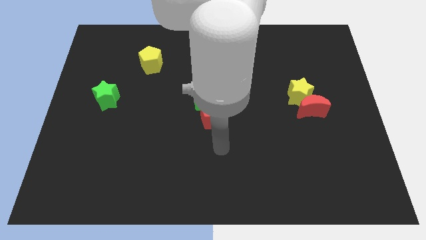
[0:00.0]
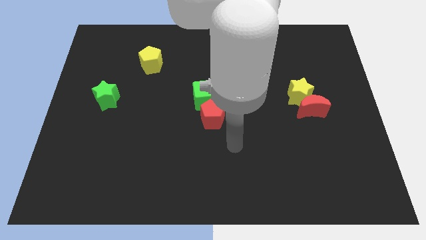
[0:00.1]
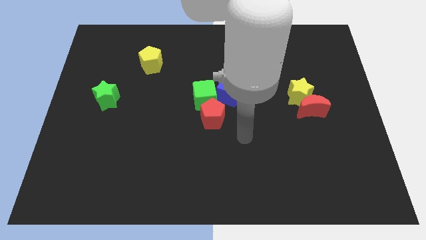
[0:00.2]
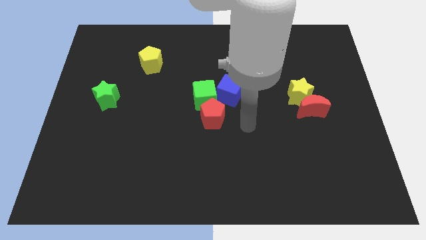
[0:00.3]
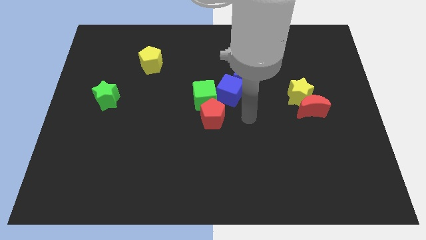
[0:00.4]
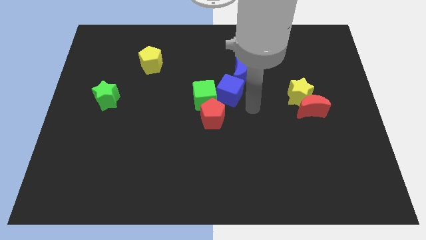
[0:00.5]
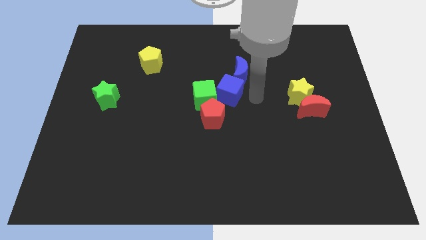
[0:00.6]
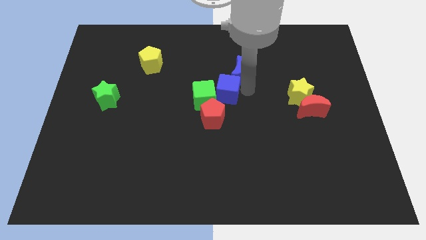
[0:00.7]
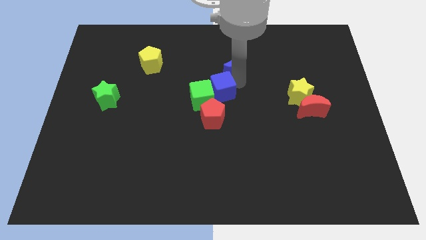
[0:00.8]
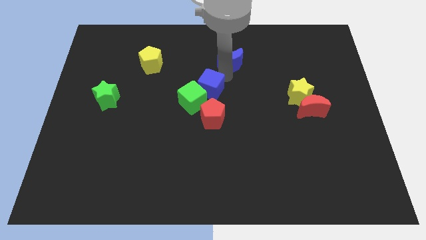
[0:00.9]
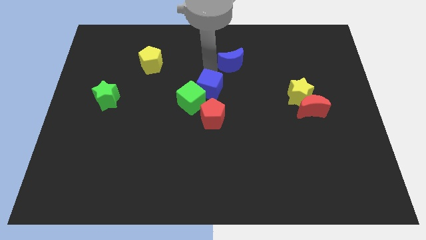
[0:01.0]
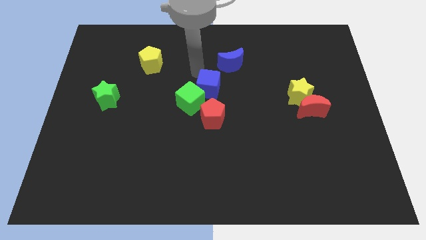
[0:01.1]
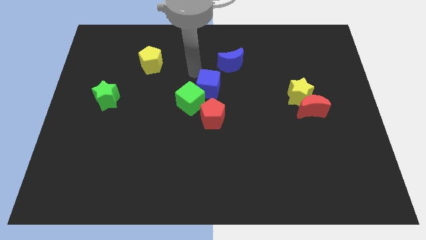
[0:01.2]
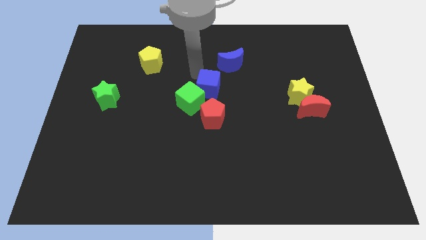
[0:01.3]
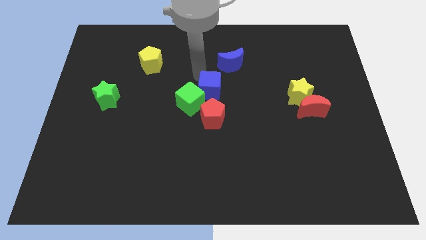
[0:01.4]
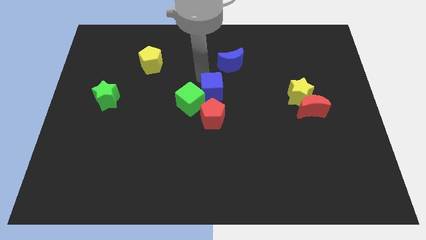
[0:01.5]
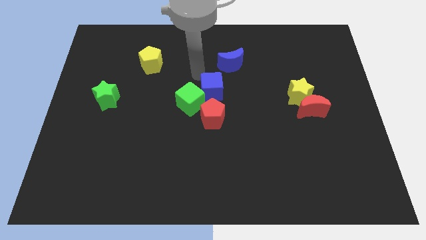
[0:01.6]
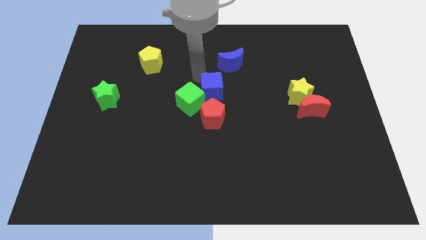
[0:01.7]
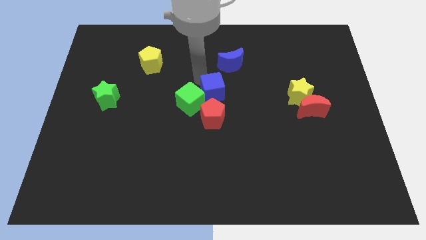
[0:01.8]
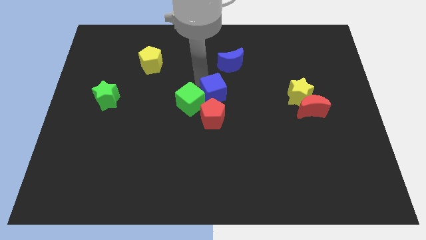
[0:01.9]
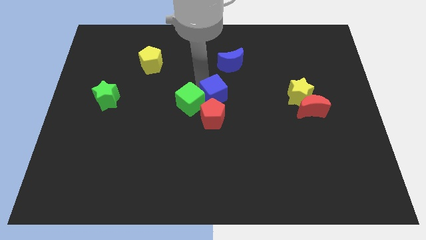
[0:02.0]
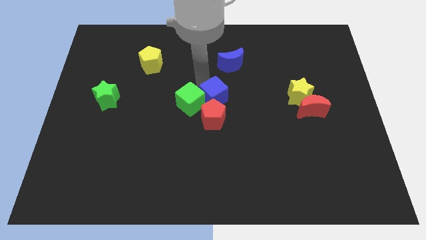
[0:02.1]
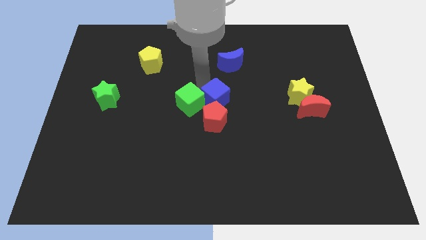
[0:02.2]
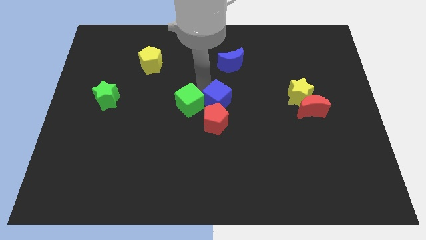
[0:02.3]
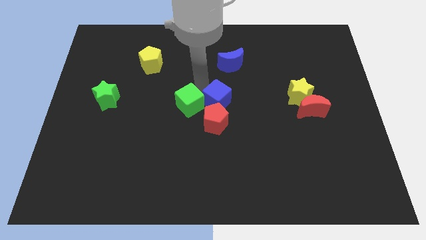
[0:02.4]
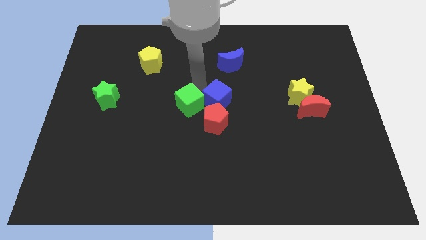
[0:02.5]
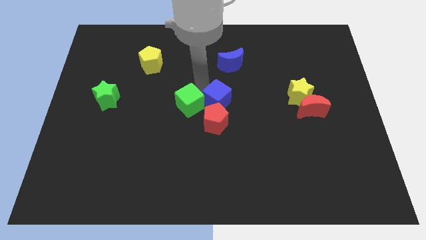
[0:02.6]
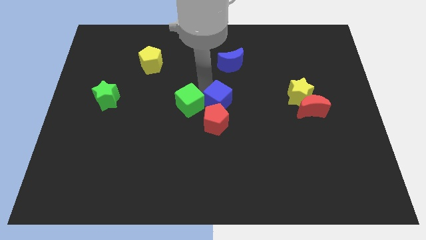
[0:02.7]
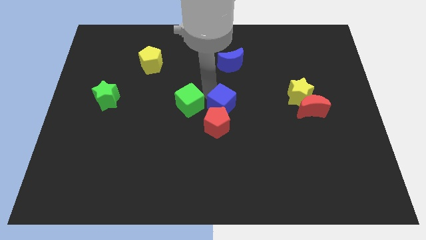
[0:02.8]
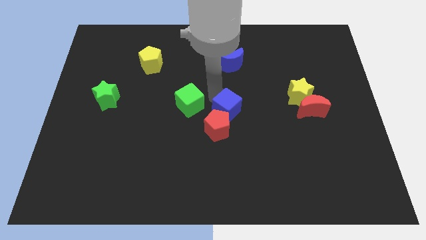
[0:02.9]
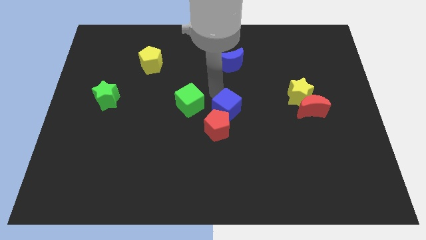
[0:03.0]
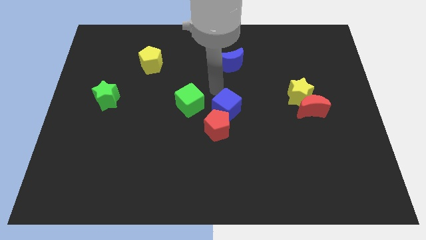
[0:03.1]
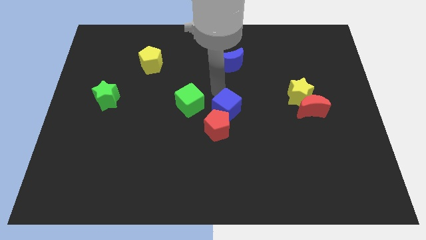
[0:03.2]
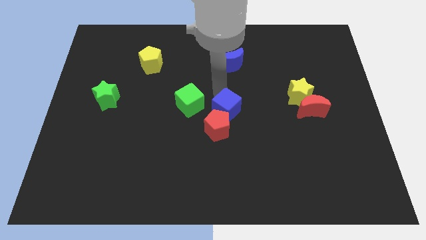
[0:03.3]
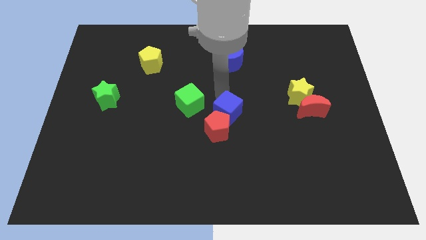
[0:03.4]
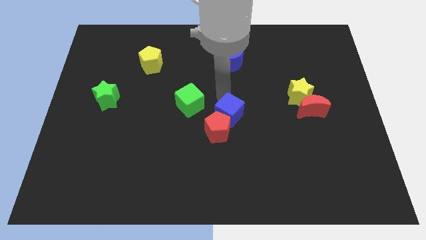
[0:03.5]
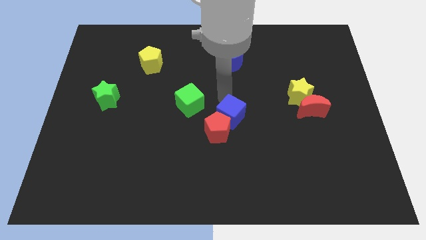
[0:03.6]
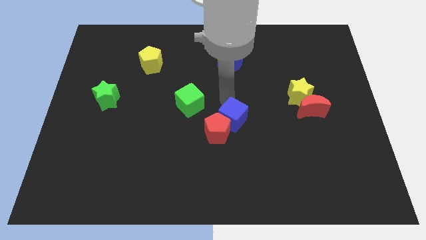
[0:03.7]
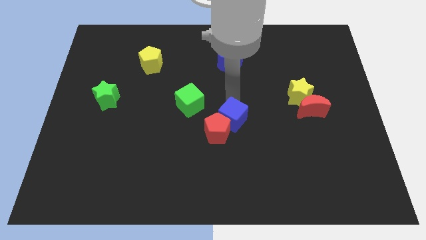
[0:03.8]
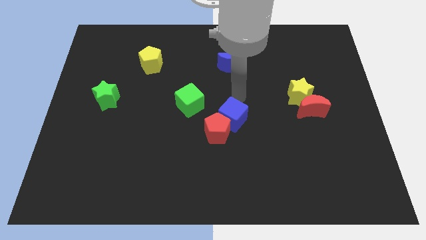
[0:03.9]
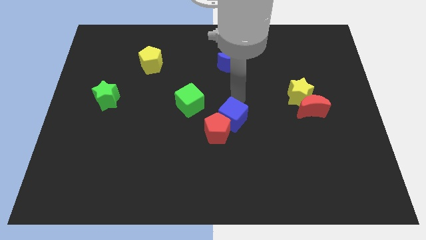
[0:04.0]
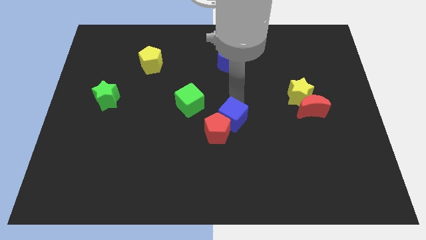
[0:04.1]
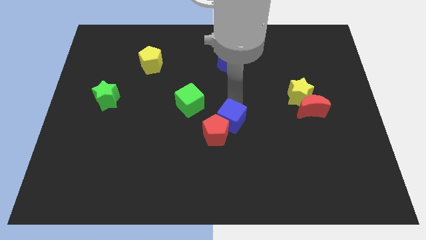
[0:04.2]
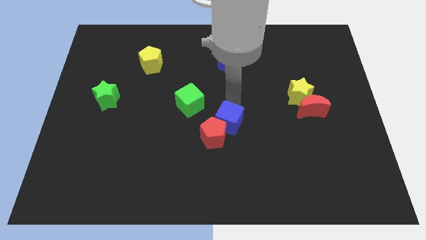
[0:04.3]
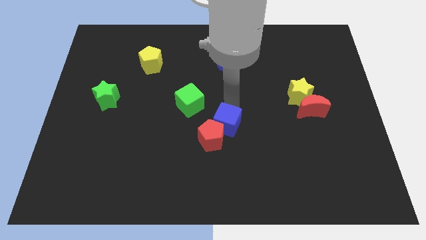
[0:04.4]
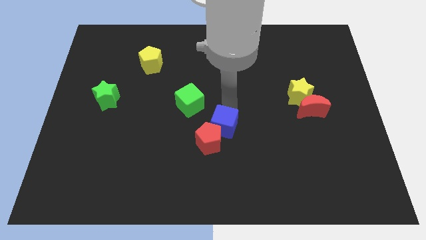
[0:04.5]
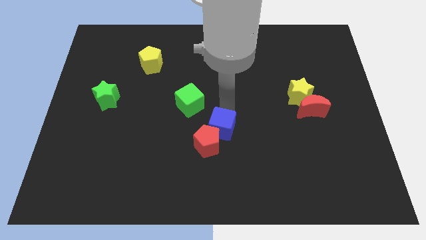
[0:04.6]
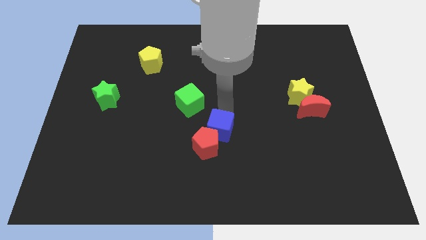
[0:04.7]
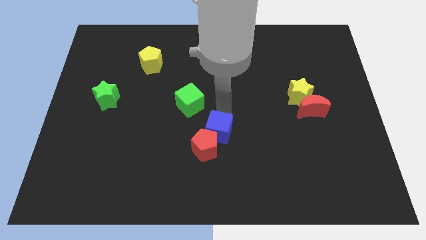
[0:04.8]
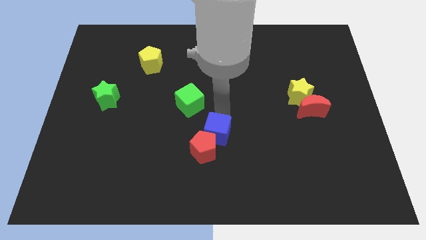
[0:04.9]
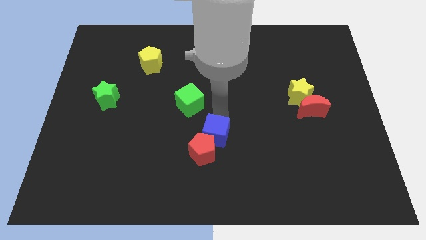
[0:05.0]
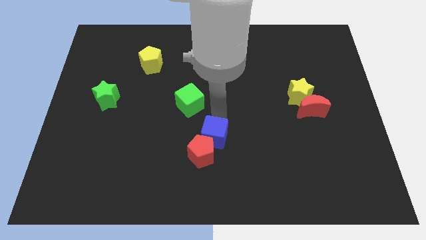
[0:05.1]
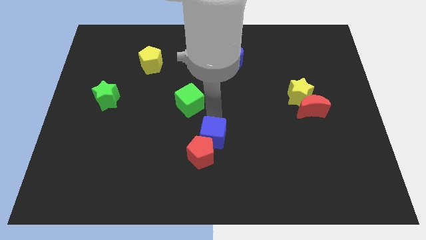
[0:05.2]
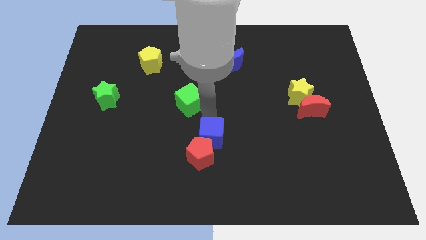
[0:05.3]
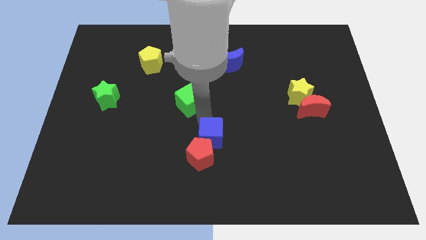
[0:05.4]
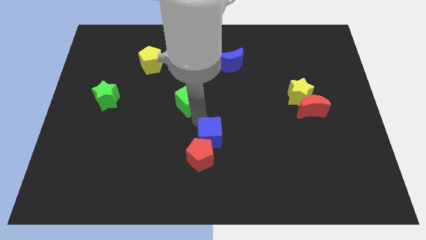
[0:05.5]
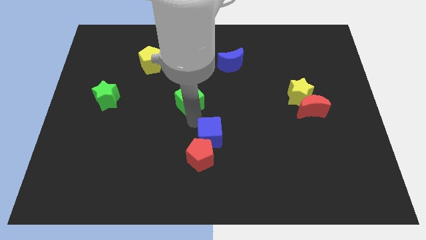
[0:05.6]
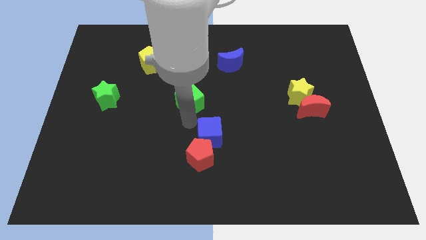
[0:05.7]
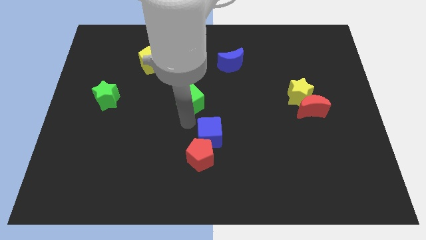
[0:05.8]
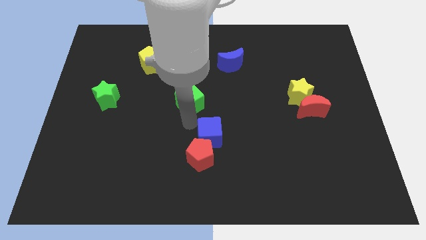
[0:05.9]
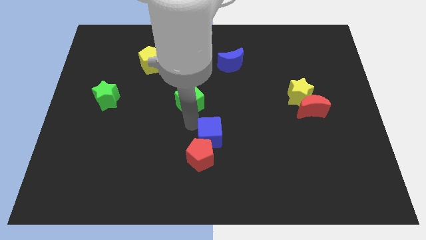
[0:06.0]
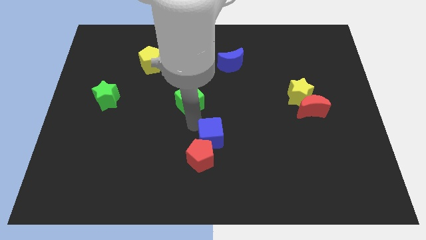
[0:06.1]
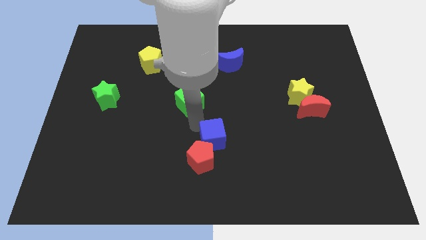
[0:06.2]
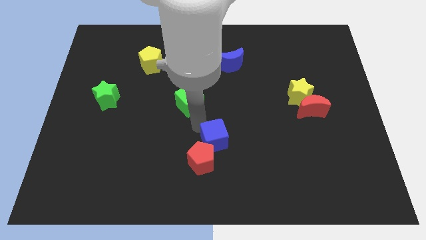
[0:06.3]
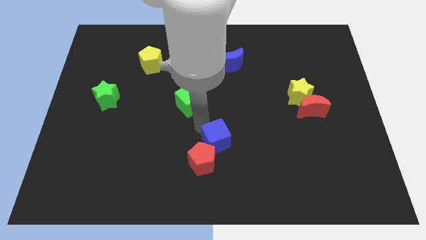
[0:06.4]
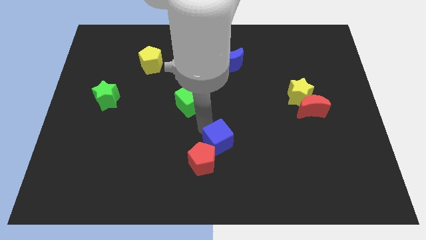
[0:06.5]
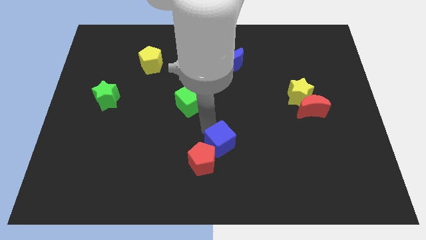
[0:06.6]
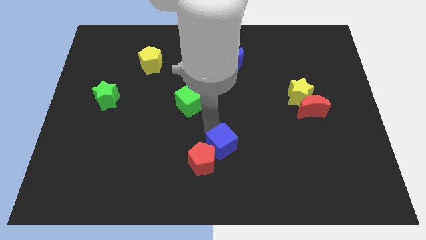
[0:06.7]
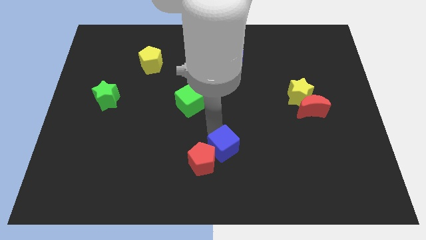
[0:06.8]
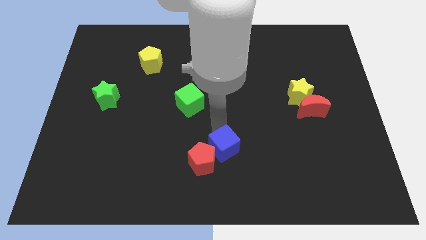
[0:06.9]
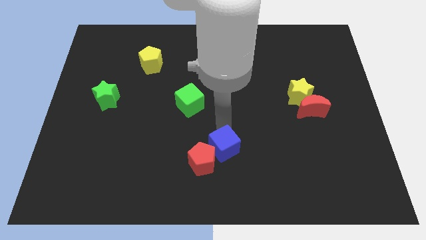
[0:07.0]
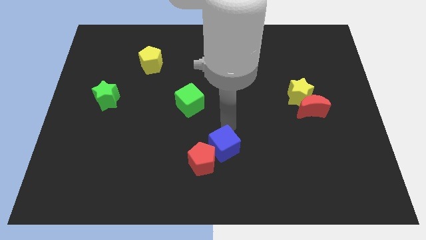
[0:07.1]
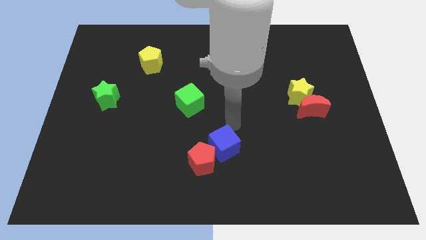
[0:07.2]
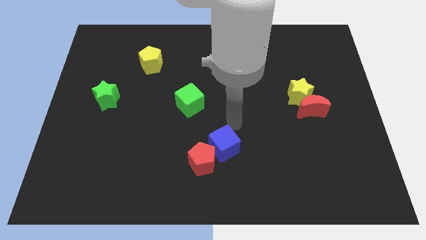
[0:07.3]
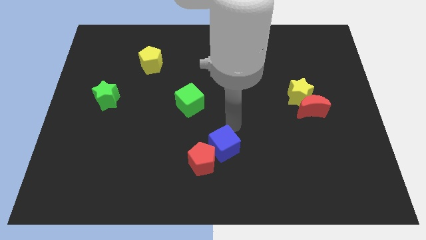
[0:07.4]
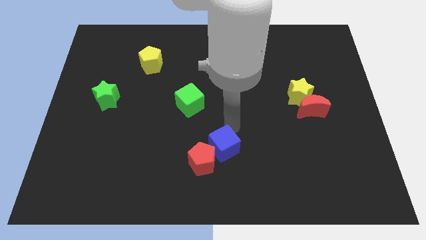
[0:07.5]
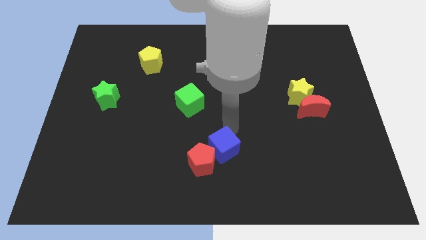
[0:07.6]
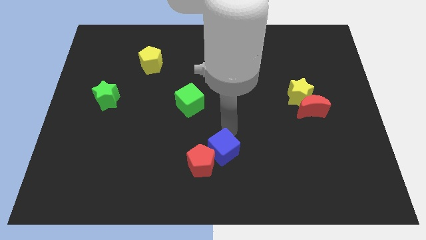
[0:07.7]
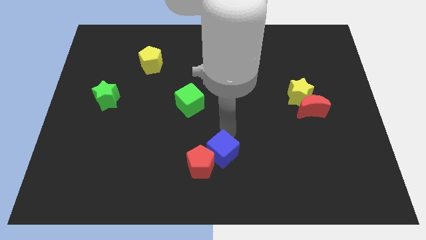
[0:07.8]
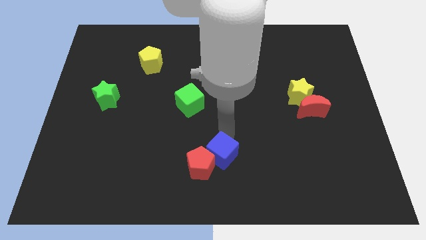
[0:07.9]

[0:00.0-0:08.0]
slide the blue cube to the bottom side
